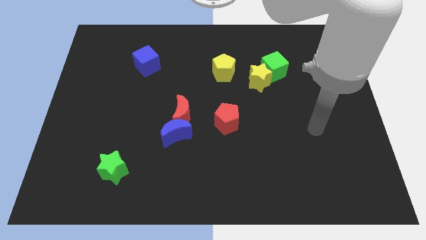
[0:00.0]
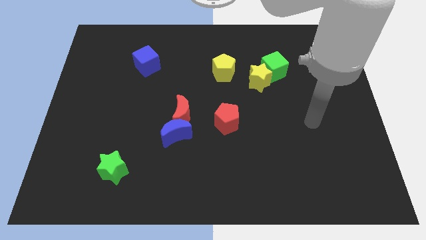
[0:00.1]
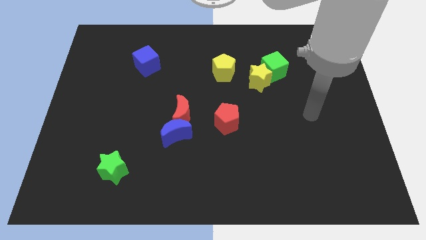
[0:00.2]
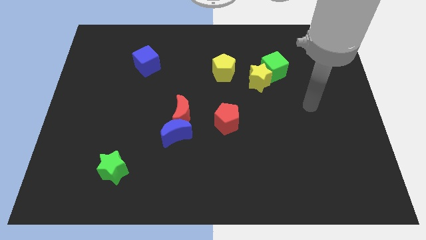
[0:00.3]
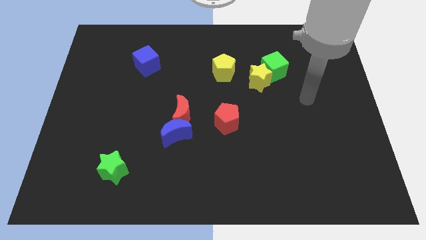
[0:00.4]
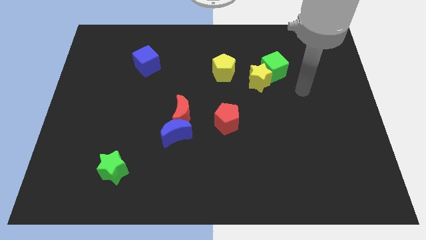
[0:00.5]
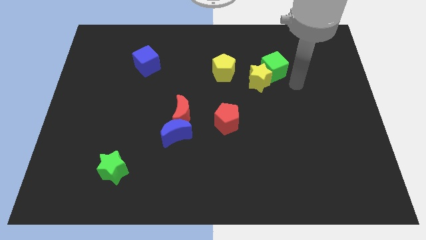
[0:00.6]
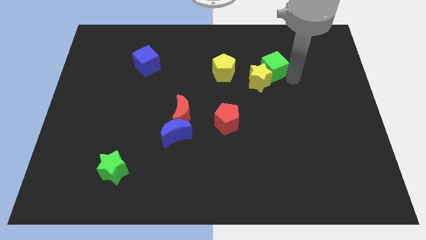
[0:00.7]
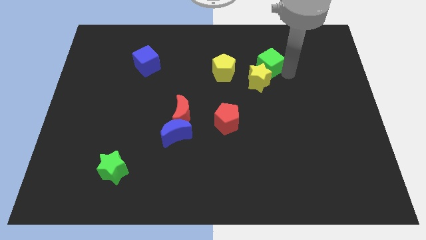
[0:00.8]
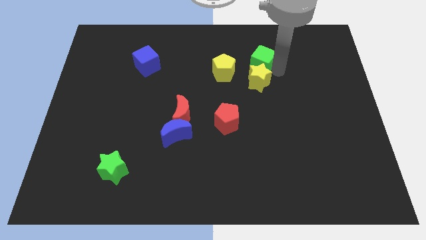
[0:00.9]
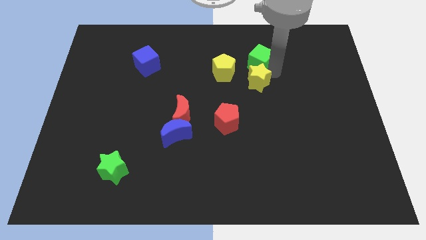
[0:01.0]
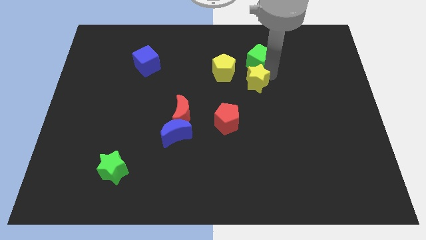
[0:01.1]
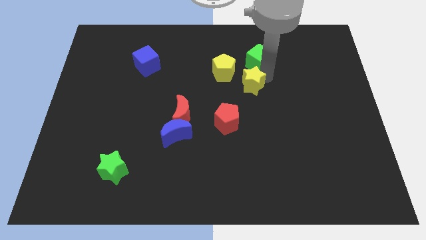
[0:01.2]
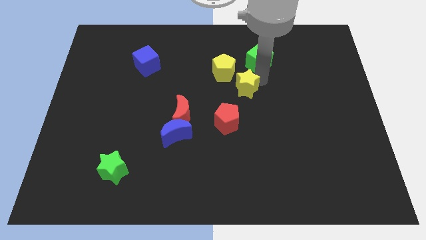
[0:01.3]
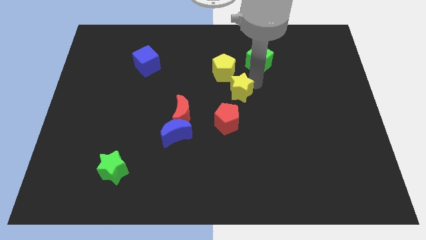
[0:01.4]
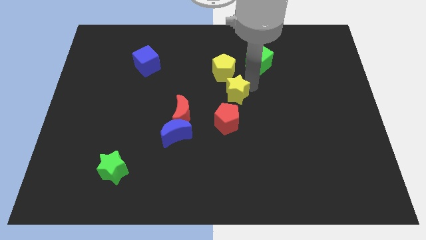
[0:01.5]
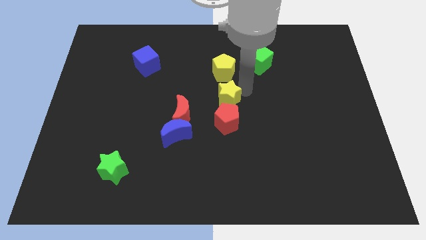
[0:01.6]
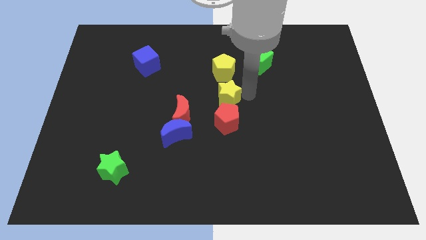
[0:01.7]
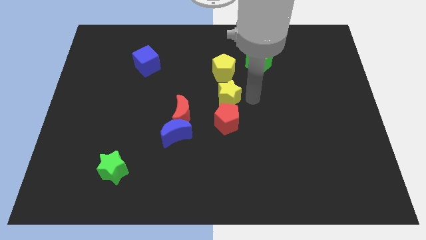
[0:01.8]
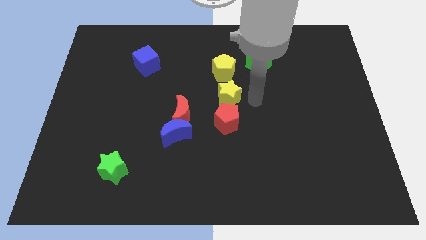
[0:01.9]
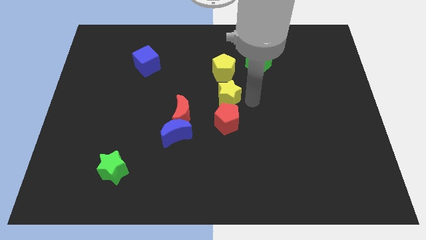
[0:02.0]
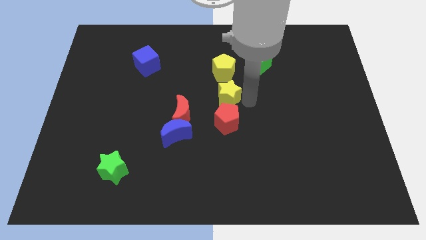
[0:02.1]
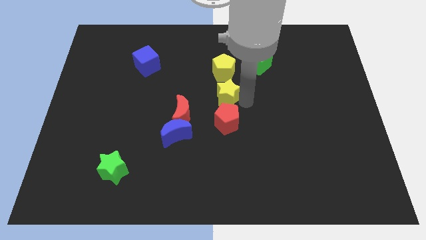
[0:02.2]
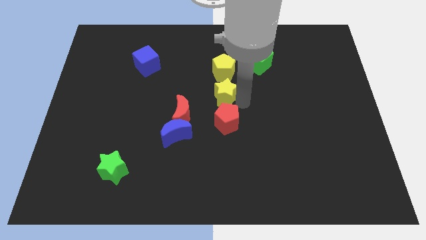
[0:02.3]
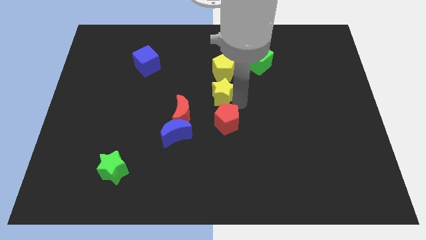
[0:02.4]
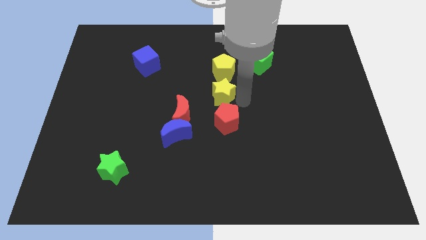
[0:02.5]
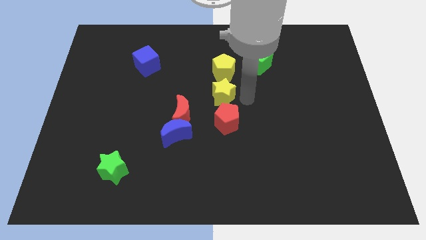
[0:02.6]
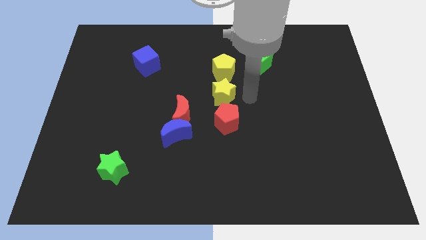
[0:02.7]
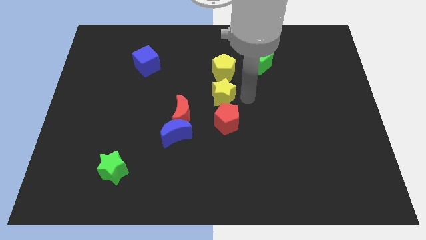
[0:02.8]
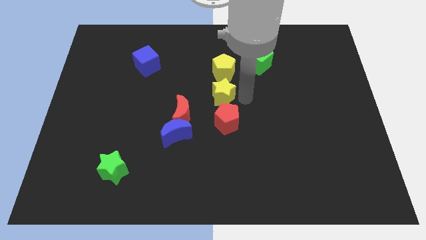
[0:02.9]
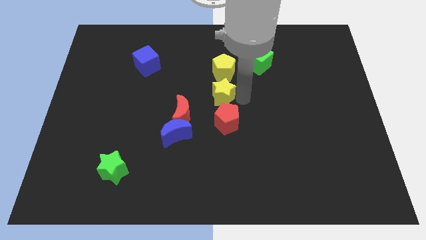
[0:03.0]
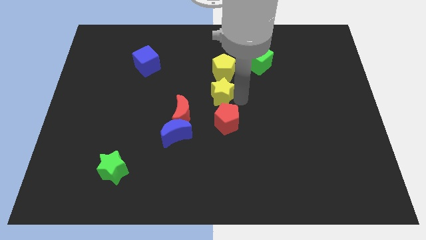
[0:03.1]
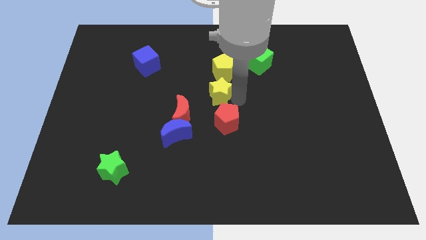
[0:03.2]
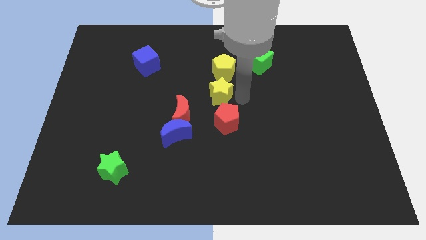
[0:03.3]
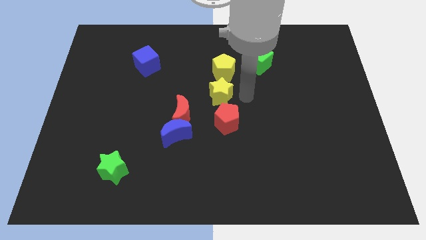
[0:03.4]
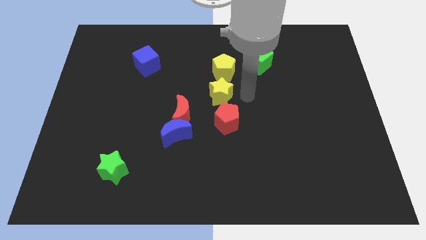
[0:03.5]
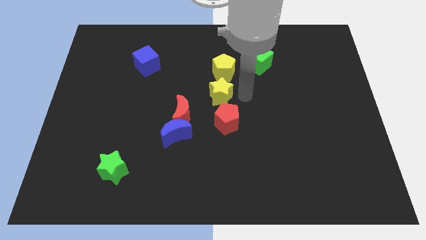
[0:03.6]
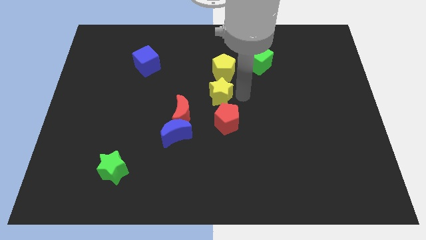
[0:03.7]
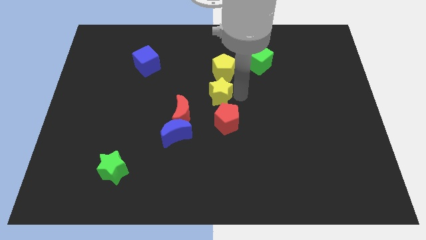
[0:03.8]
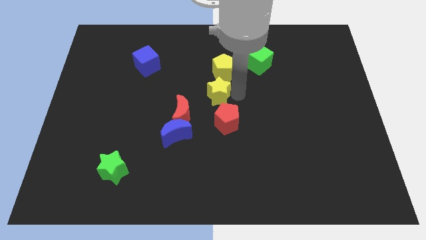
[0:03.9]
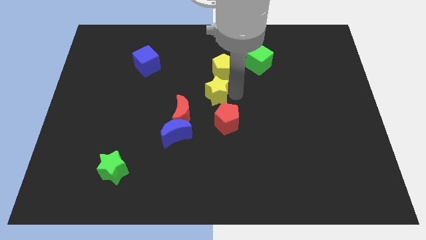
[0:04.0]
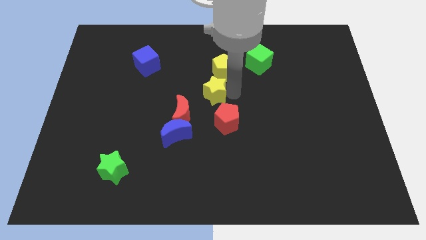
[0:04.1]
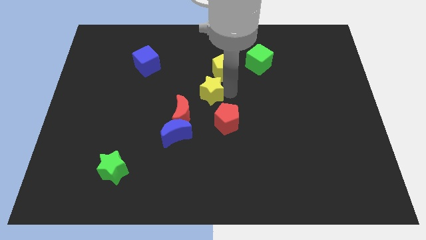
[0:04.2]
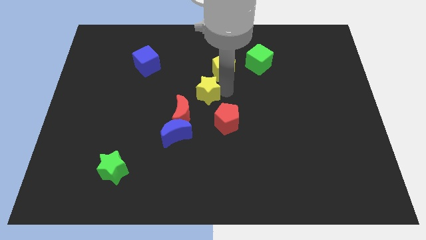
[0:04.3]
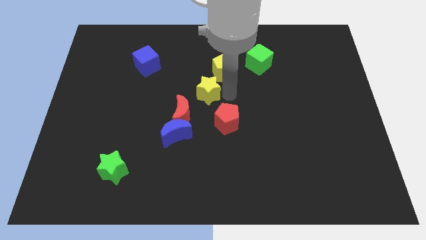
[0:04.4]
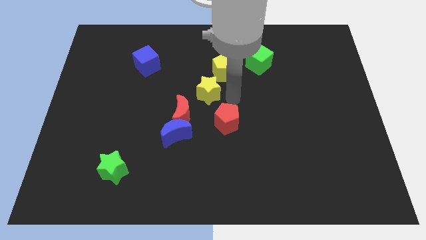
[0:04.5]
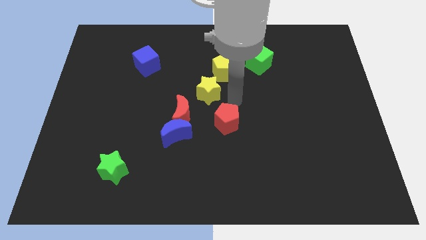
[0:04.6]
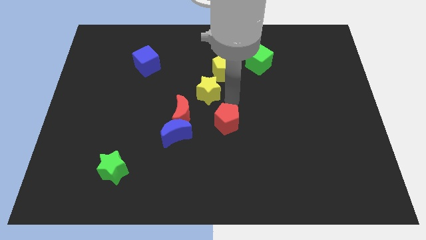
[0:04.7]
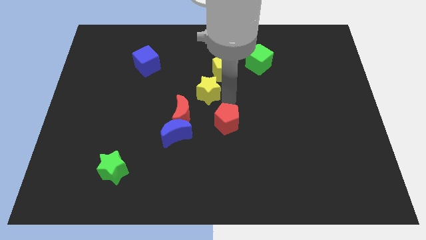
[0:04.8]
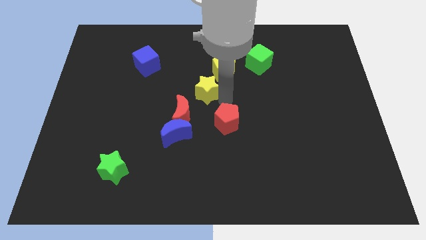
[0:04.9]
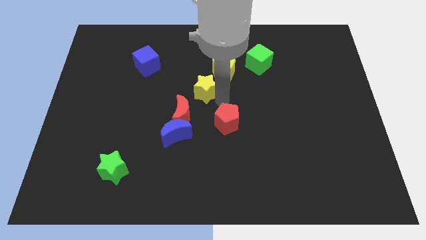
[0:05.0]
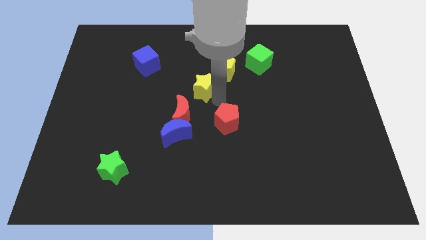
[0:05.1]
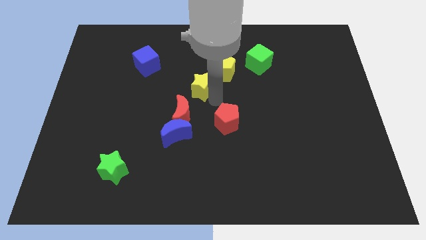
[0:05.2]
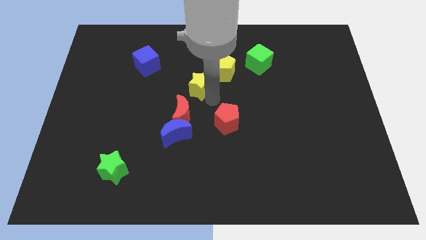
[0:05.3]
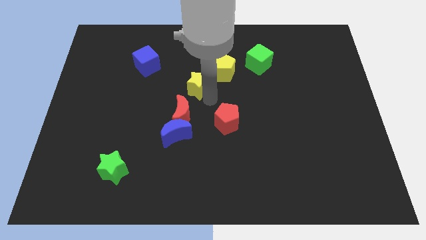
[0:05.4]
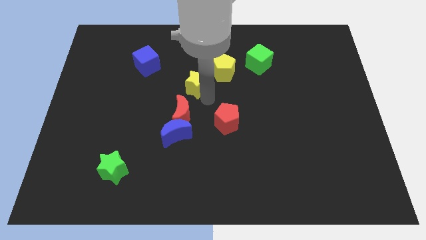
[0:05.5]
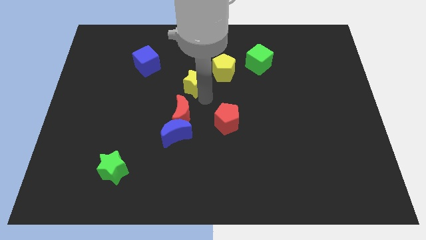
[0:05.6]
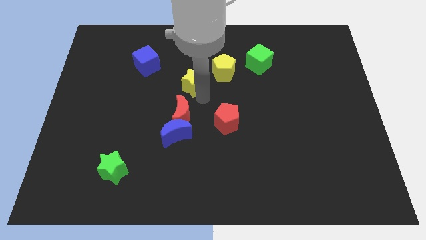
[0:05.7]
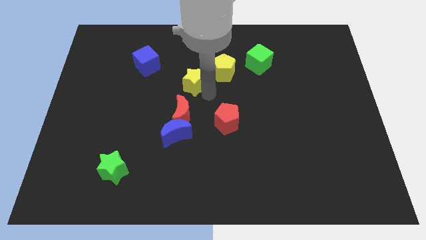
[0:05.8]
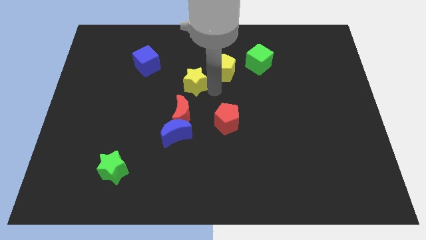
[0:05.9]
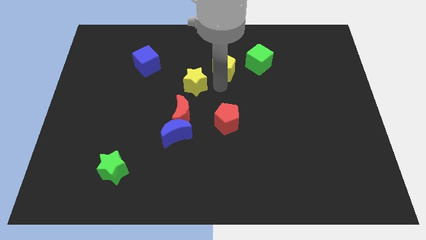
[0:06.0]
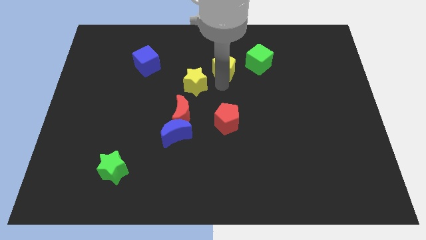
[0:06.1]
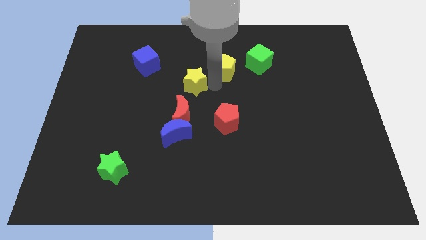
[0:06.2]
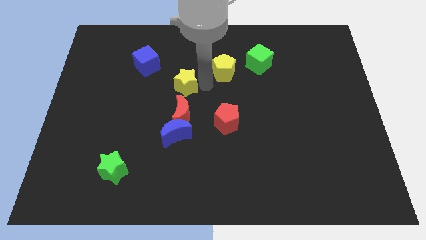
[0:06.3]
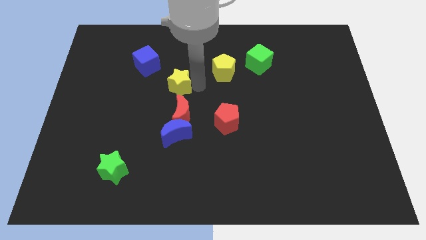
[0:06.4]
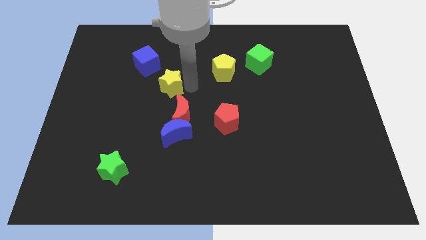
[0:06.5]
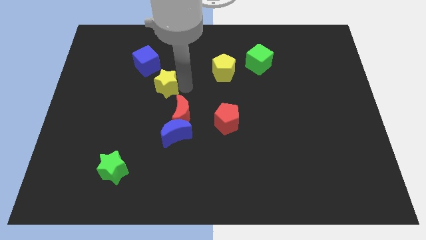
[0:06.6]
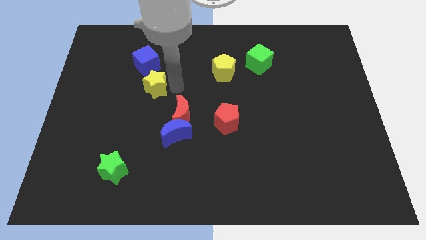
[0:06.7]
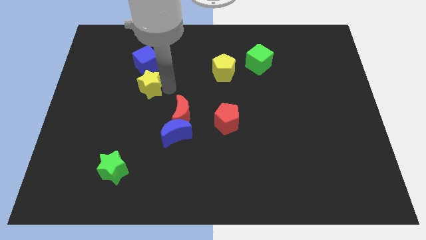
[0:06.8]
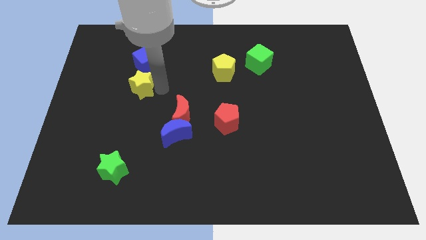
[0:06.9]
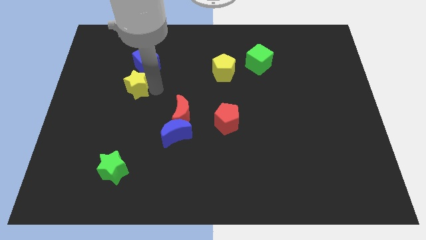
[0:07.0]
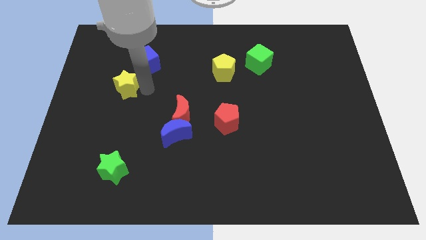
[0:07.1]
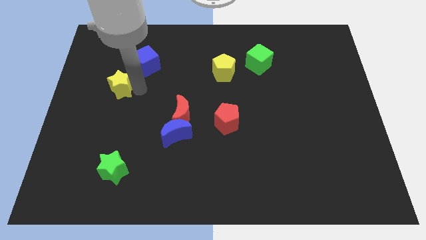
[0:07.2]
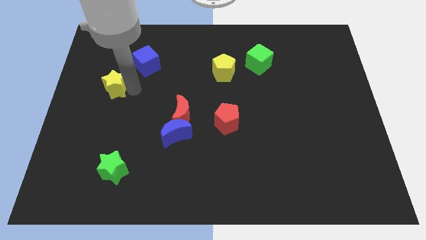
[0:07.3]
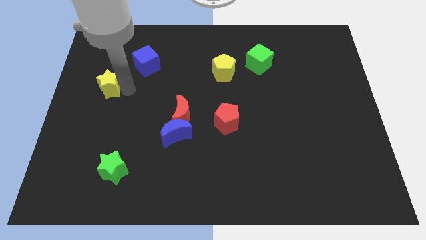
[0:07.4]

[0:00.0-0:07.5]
push the yellow star to the left side
